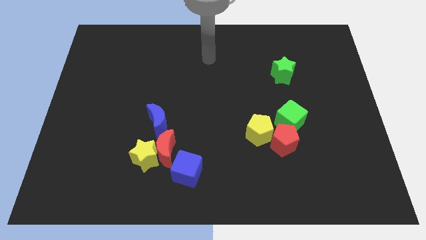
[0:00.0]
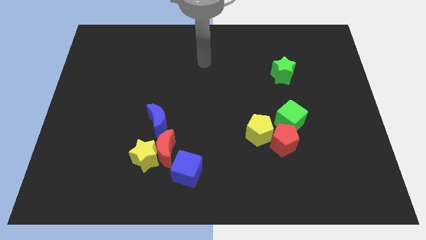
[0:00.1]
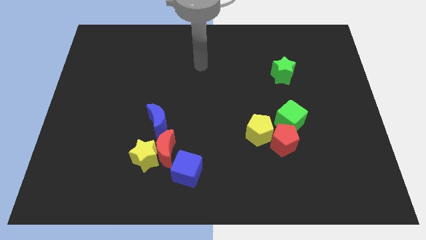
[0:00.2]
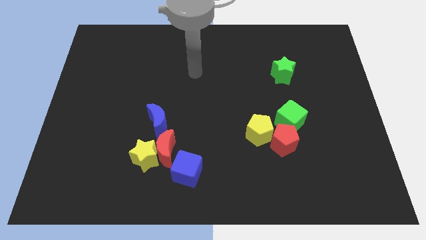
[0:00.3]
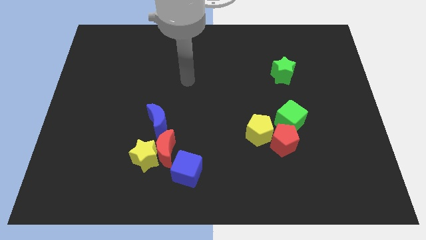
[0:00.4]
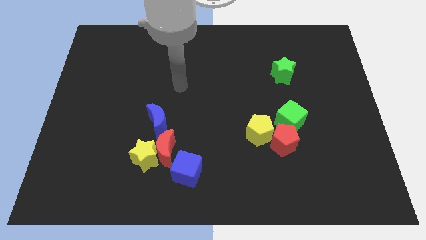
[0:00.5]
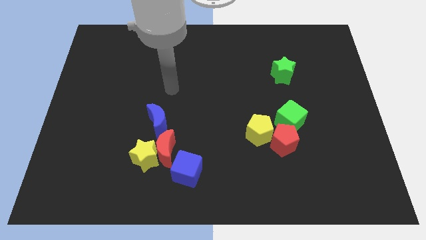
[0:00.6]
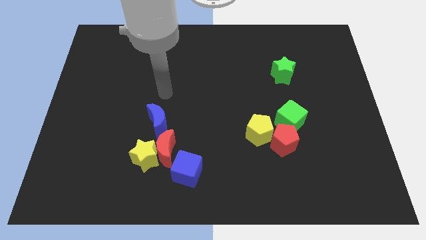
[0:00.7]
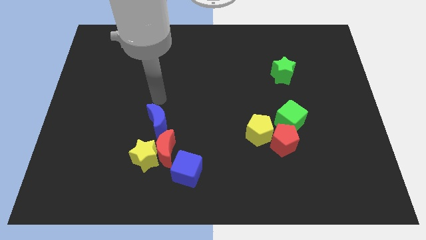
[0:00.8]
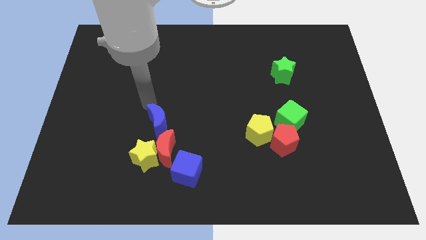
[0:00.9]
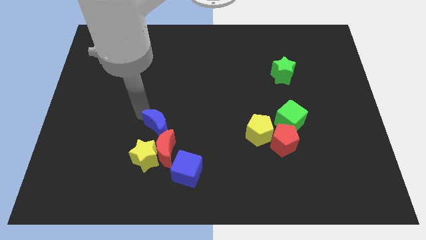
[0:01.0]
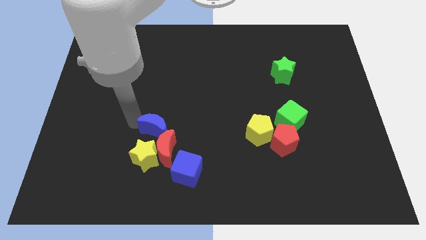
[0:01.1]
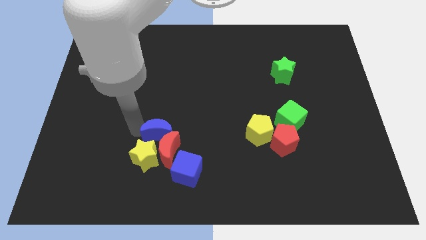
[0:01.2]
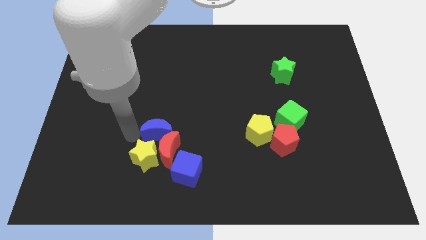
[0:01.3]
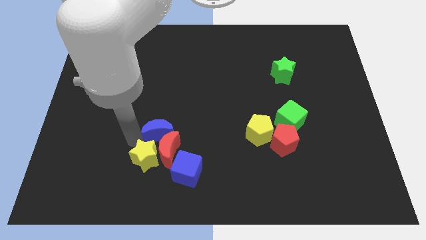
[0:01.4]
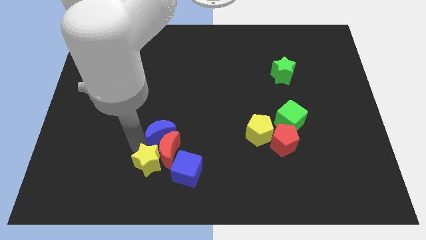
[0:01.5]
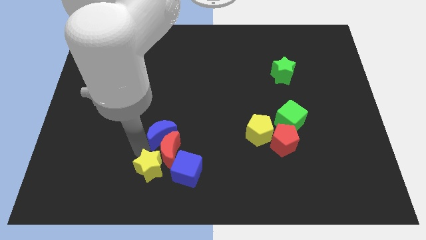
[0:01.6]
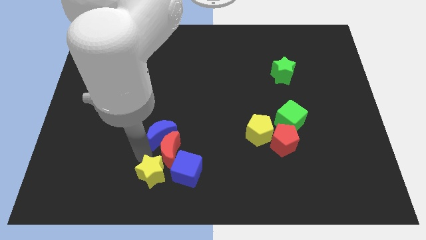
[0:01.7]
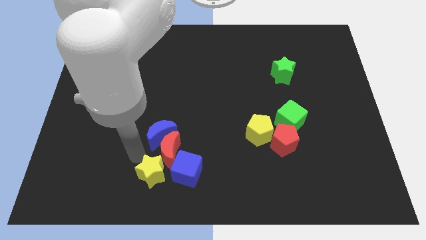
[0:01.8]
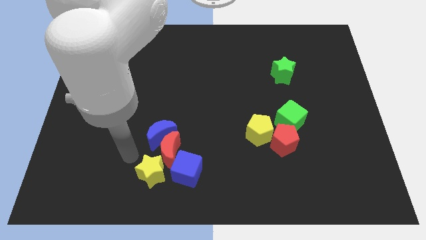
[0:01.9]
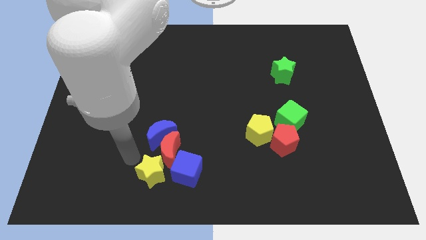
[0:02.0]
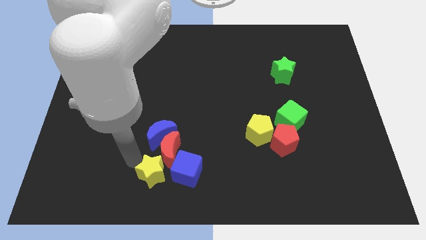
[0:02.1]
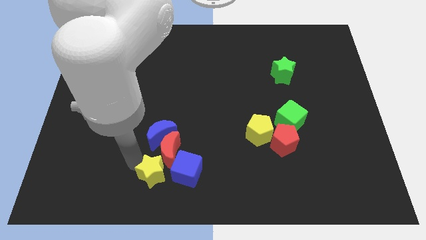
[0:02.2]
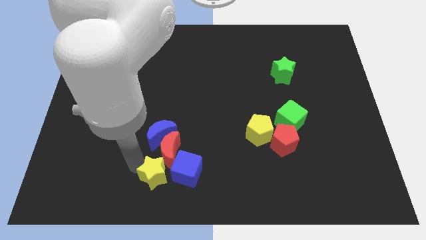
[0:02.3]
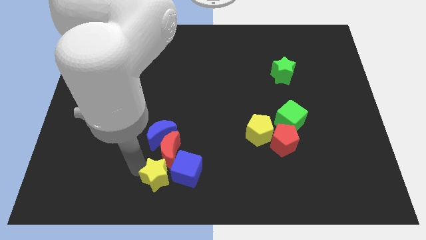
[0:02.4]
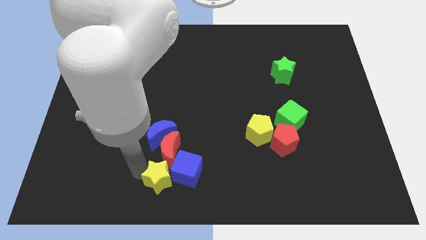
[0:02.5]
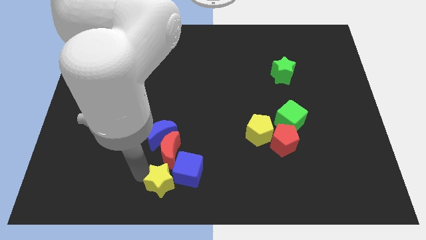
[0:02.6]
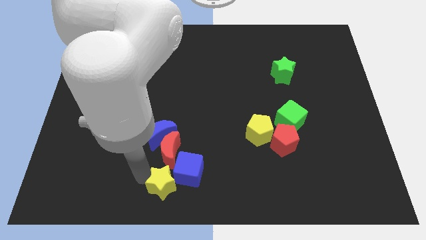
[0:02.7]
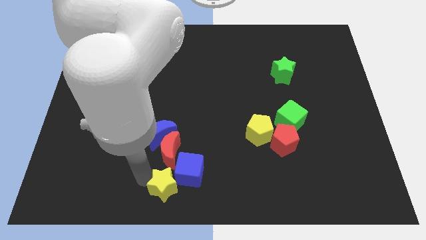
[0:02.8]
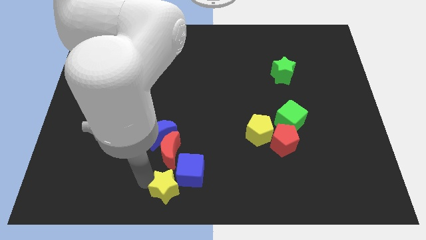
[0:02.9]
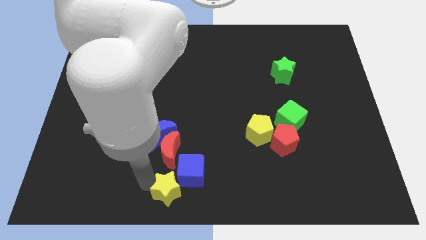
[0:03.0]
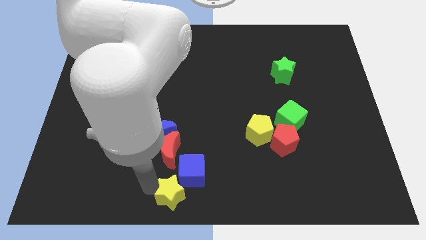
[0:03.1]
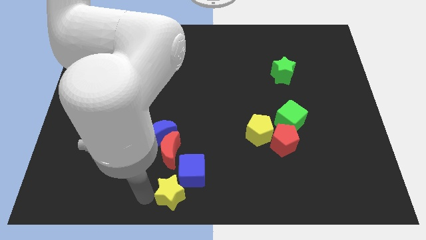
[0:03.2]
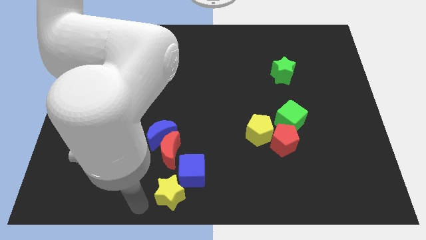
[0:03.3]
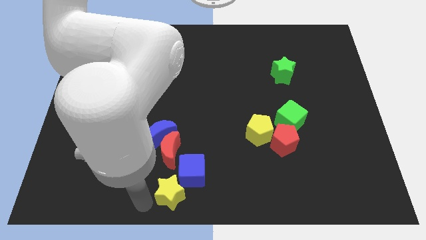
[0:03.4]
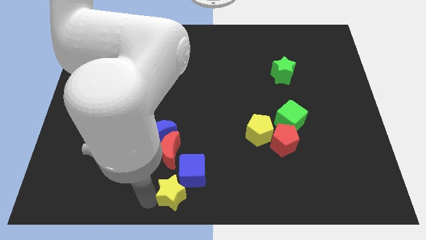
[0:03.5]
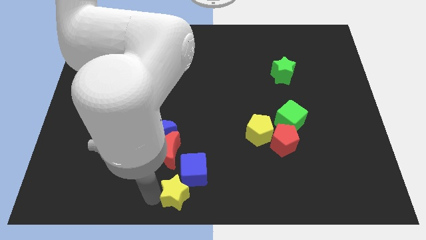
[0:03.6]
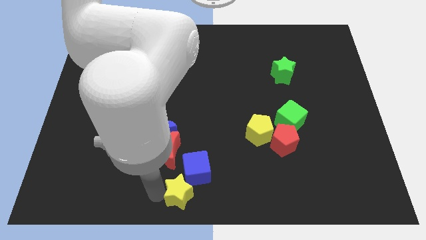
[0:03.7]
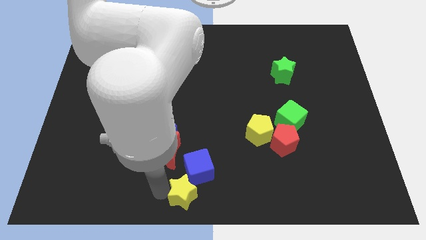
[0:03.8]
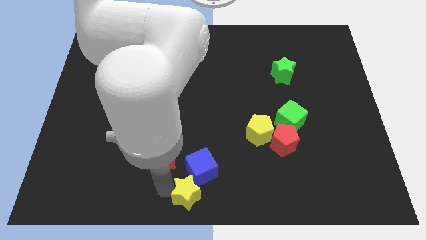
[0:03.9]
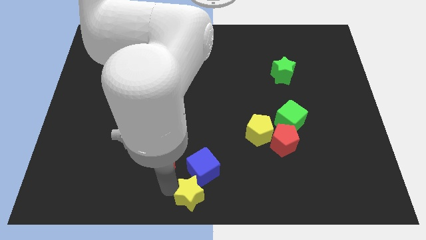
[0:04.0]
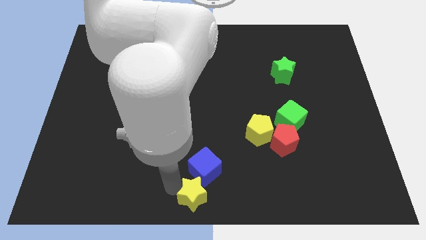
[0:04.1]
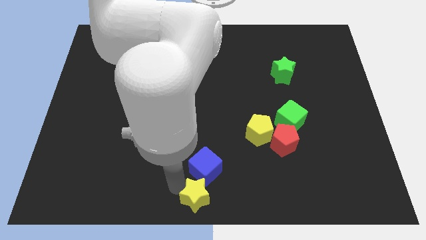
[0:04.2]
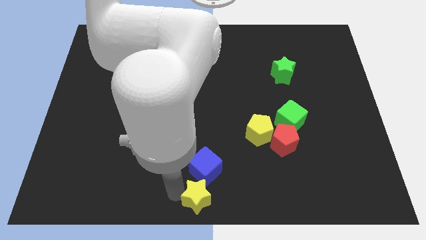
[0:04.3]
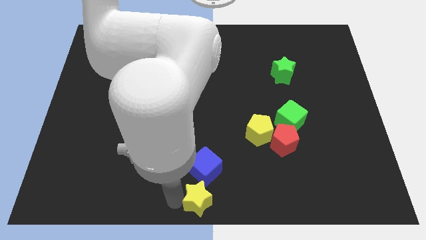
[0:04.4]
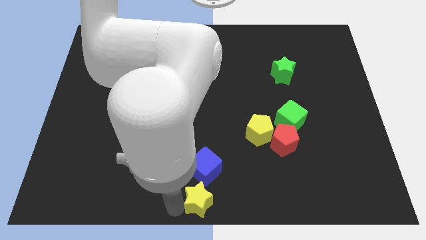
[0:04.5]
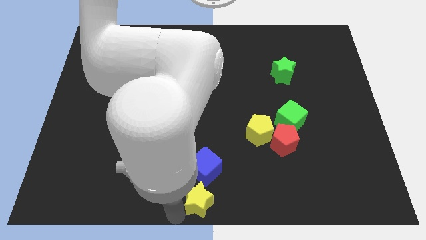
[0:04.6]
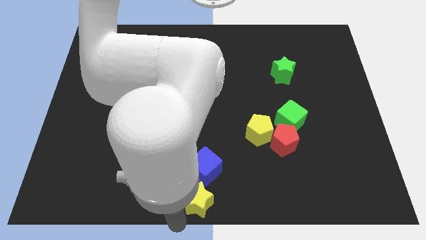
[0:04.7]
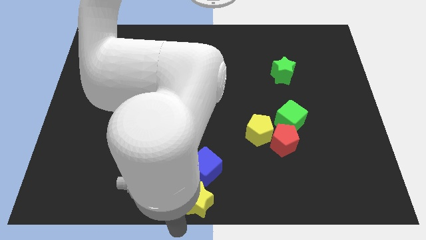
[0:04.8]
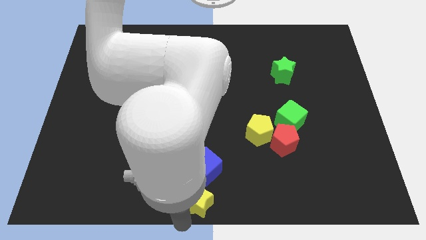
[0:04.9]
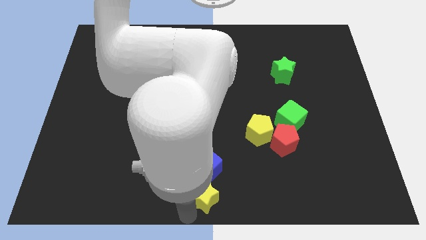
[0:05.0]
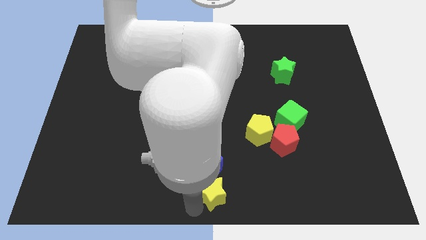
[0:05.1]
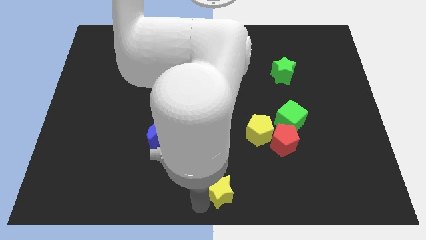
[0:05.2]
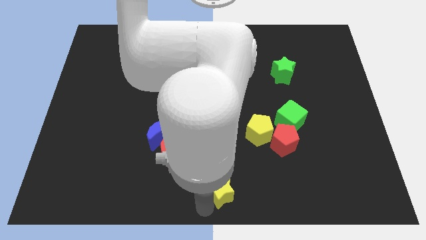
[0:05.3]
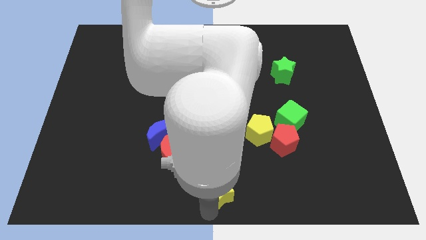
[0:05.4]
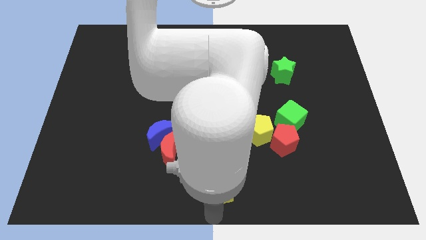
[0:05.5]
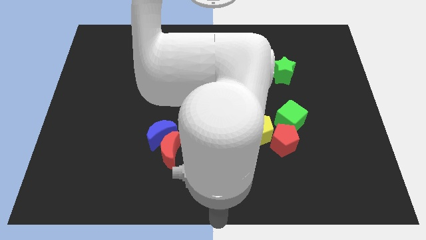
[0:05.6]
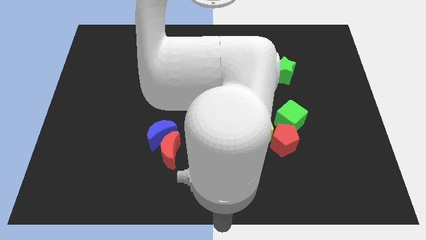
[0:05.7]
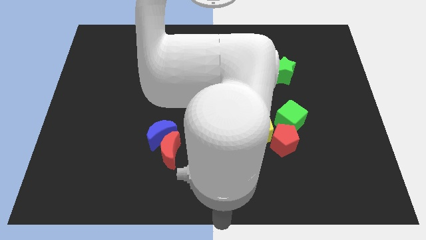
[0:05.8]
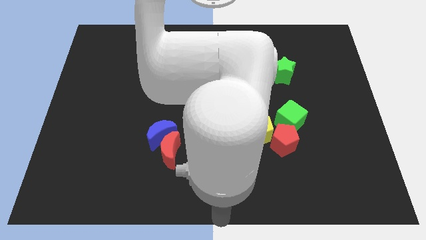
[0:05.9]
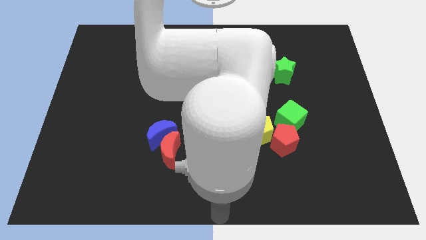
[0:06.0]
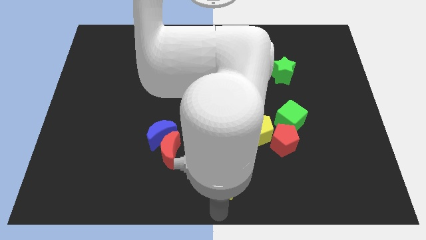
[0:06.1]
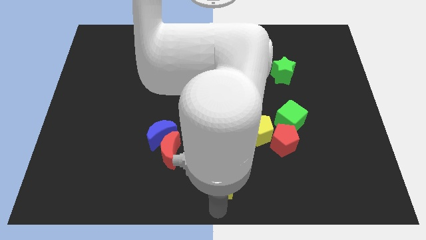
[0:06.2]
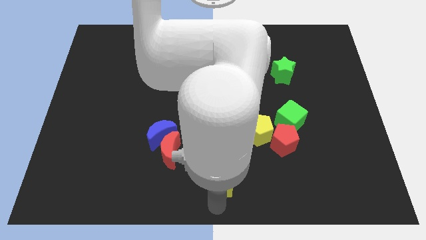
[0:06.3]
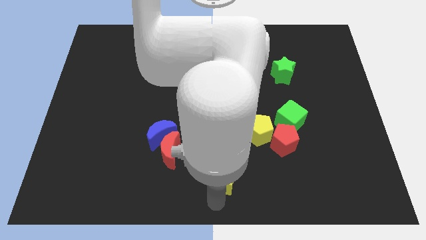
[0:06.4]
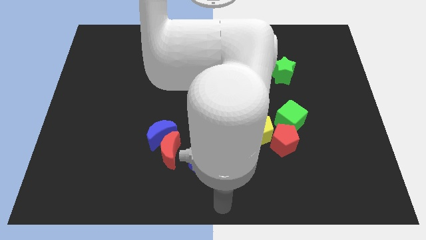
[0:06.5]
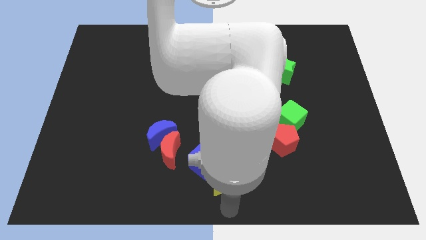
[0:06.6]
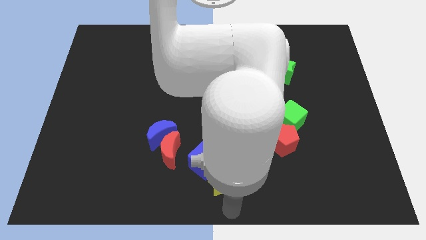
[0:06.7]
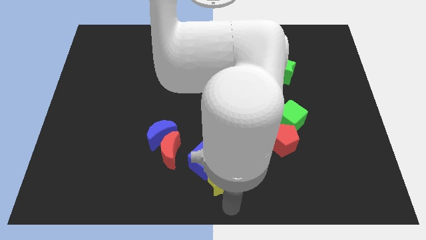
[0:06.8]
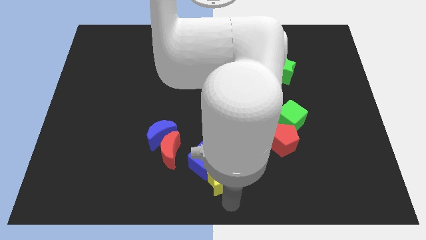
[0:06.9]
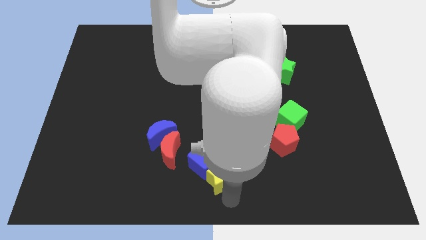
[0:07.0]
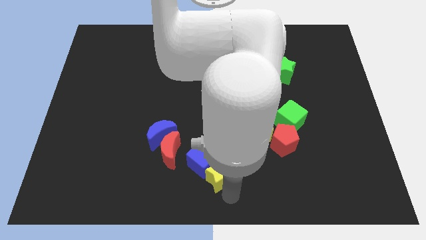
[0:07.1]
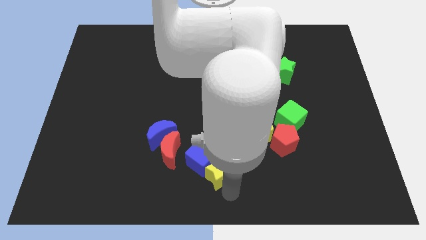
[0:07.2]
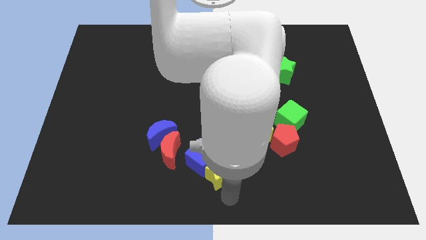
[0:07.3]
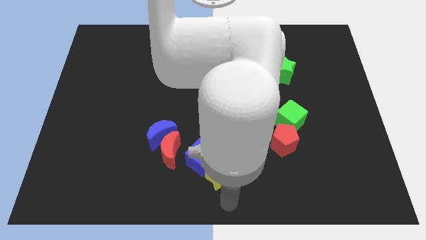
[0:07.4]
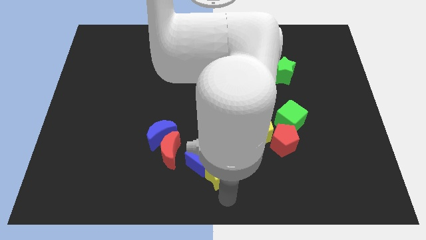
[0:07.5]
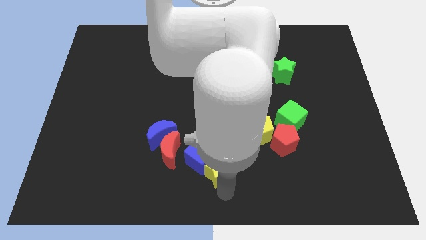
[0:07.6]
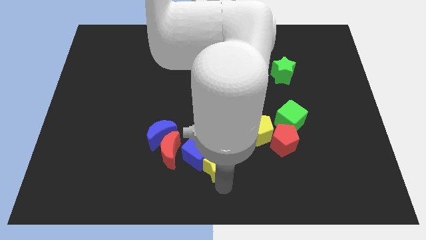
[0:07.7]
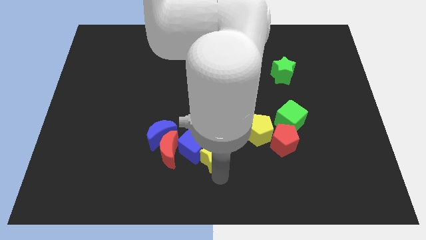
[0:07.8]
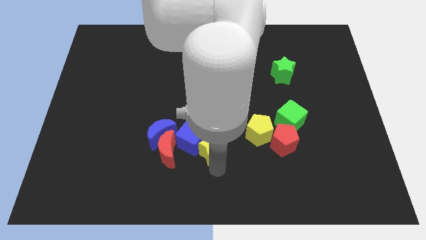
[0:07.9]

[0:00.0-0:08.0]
put the yellow star left of the yellow pentagon

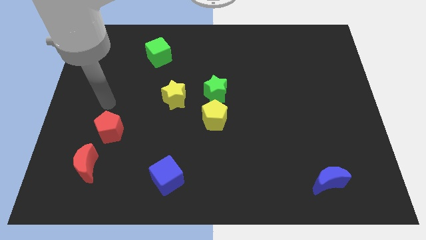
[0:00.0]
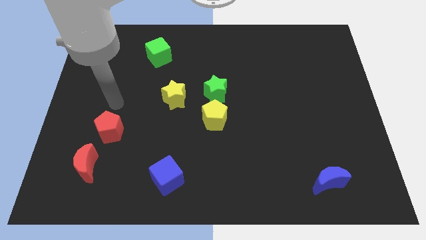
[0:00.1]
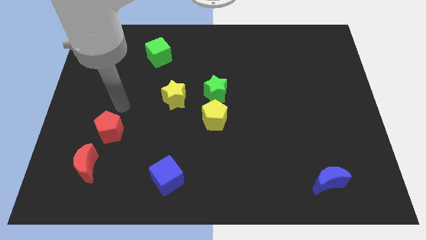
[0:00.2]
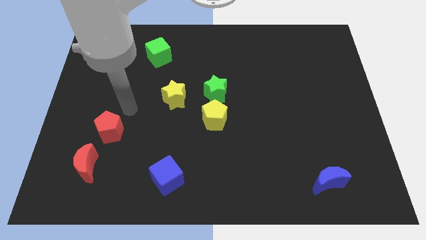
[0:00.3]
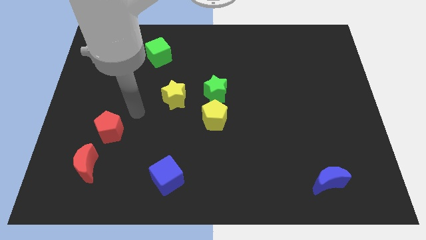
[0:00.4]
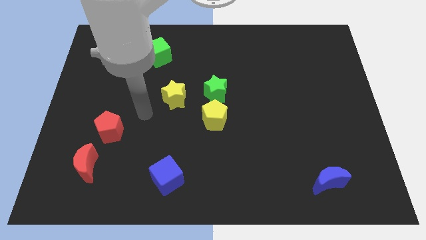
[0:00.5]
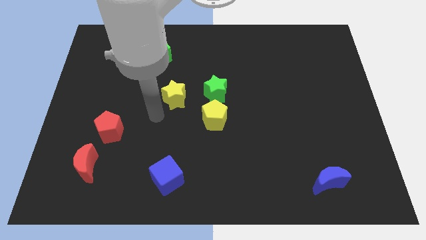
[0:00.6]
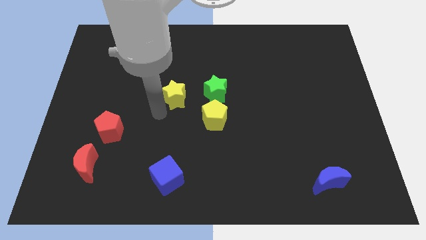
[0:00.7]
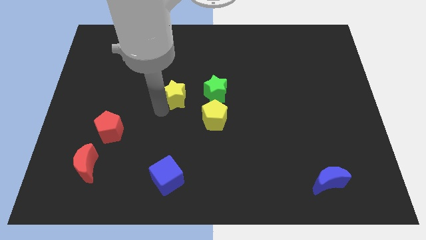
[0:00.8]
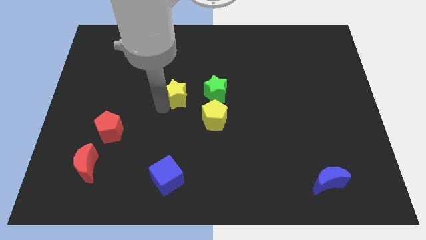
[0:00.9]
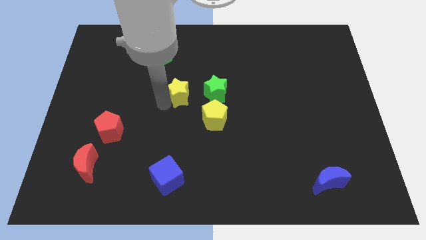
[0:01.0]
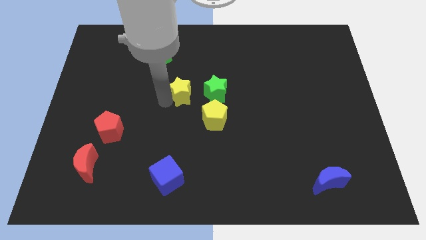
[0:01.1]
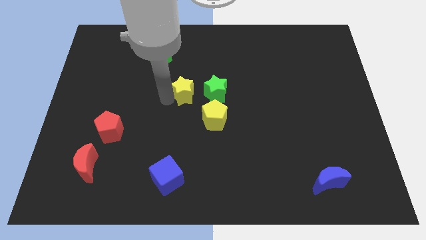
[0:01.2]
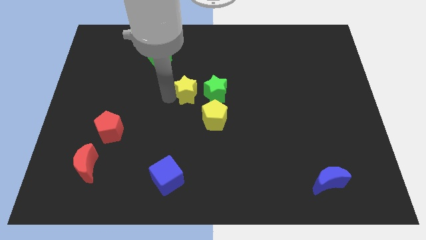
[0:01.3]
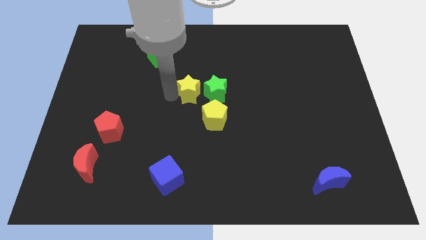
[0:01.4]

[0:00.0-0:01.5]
move the yellow star diagonally up and to the left of the green star
